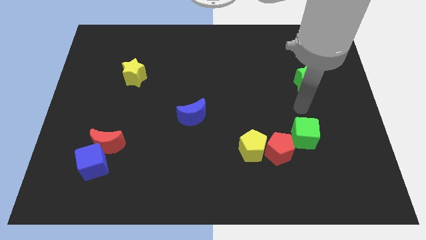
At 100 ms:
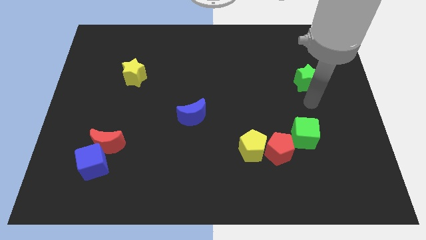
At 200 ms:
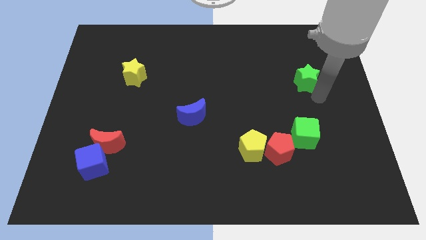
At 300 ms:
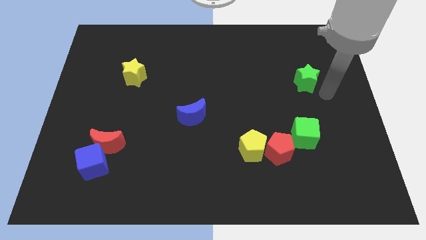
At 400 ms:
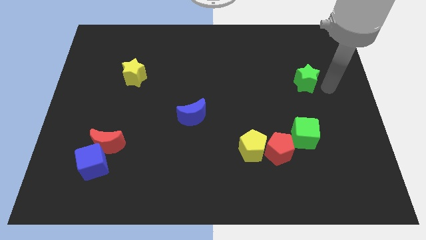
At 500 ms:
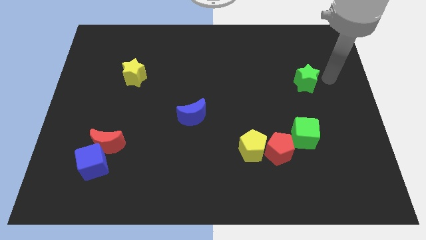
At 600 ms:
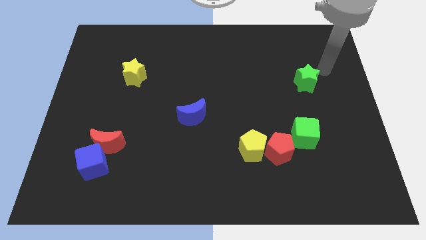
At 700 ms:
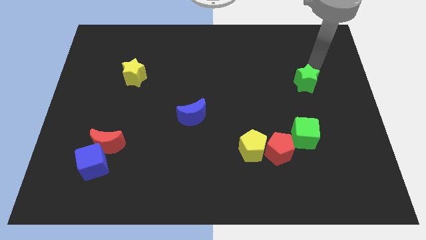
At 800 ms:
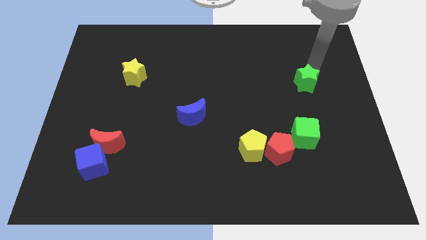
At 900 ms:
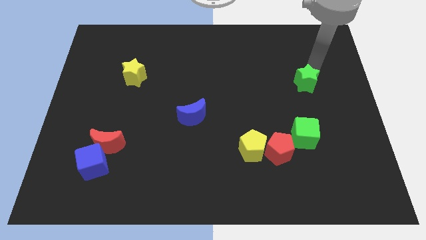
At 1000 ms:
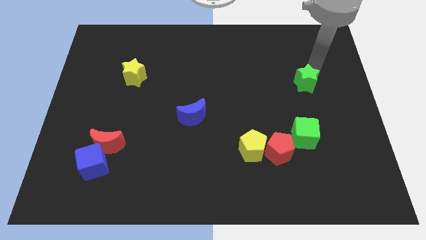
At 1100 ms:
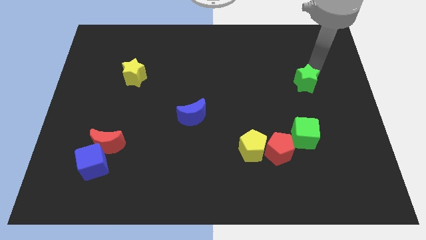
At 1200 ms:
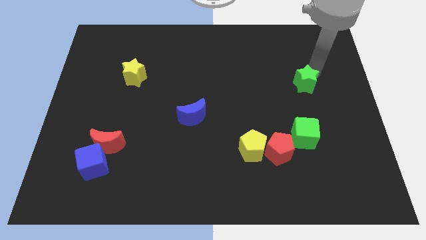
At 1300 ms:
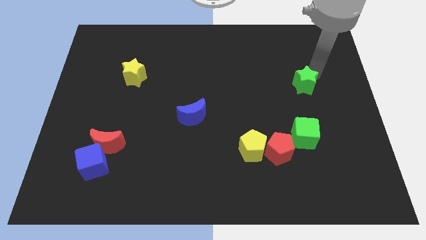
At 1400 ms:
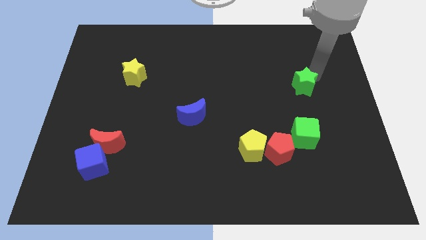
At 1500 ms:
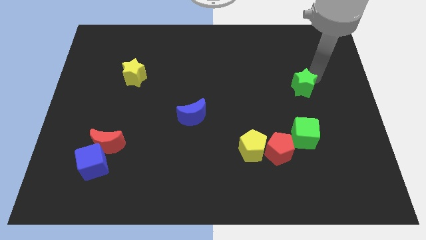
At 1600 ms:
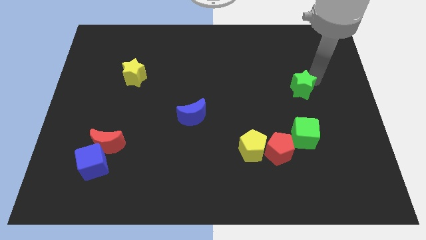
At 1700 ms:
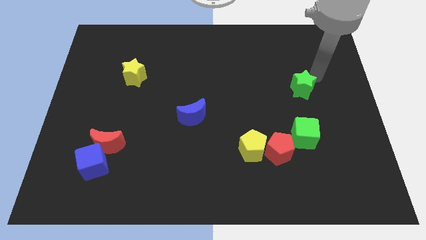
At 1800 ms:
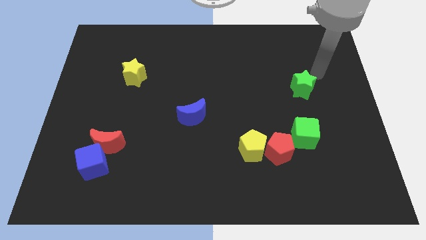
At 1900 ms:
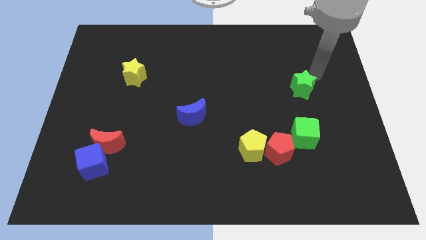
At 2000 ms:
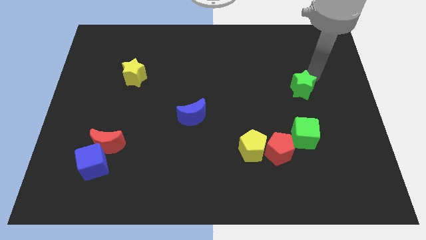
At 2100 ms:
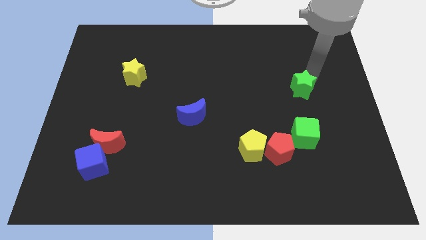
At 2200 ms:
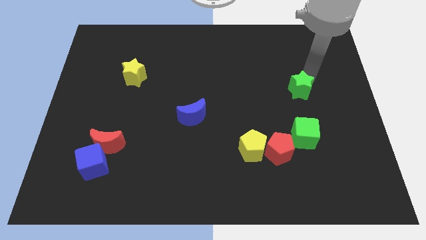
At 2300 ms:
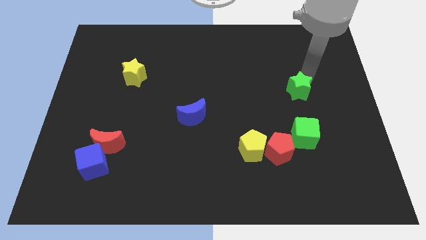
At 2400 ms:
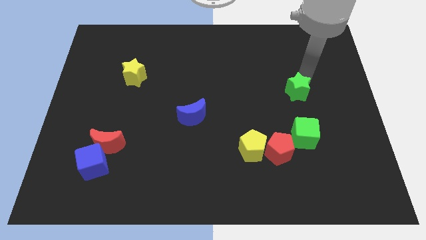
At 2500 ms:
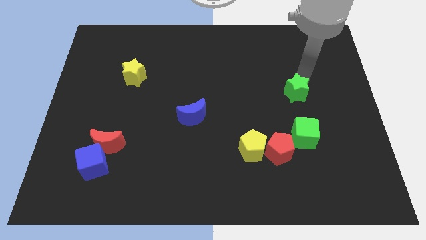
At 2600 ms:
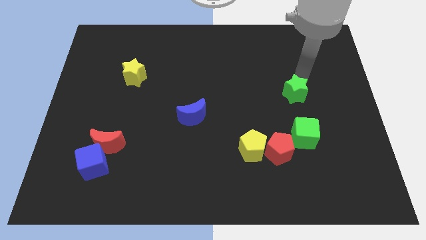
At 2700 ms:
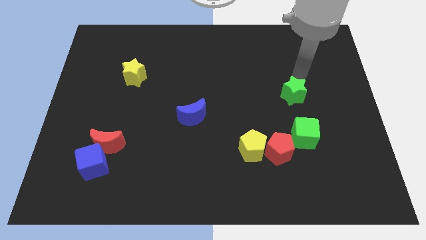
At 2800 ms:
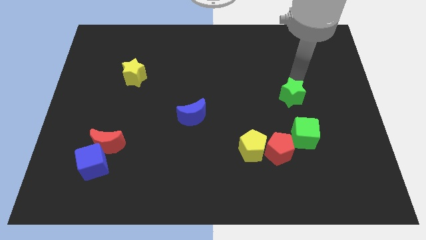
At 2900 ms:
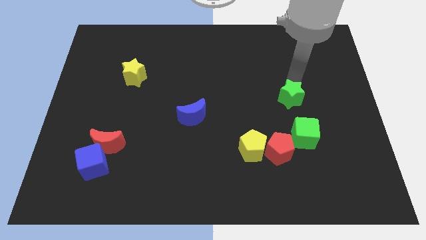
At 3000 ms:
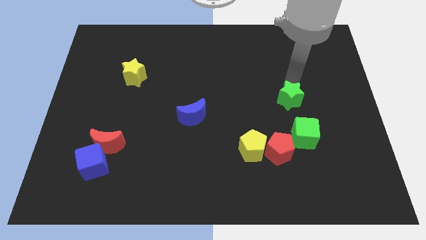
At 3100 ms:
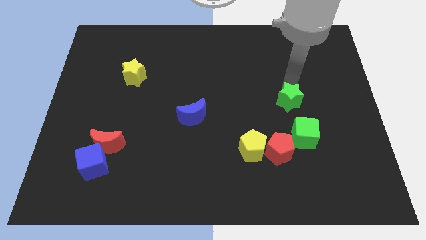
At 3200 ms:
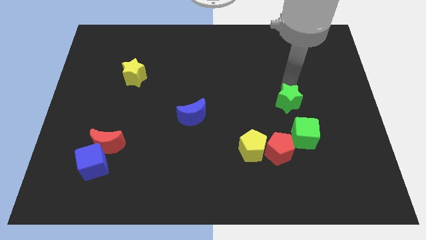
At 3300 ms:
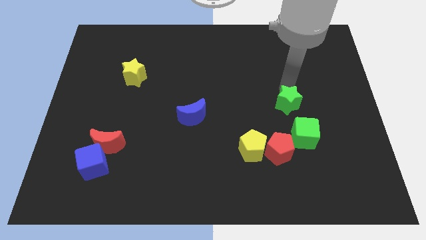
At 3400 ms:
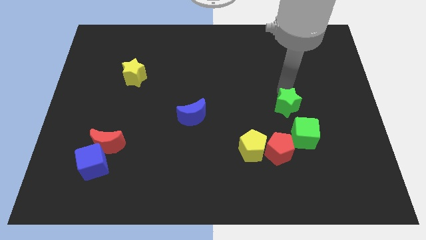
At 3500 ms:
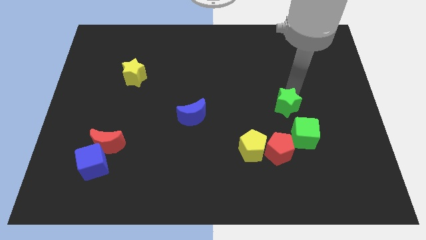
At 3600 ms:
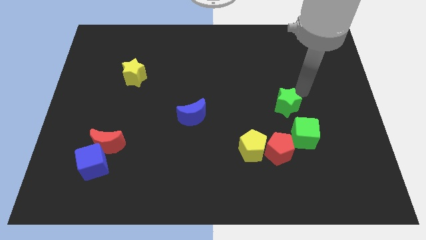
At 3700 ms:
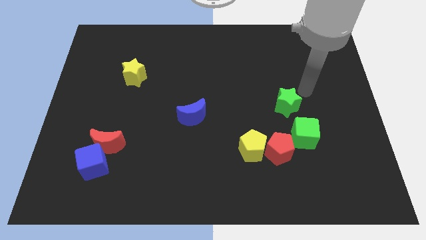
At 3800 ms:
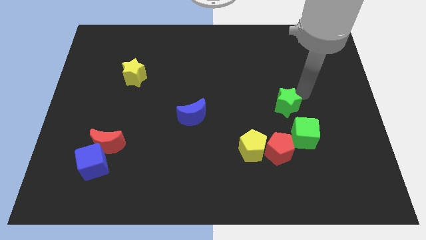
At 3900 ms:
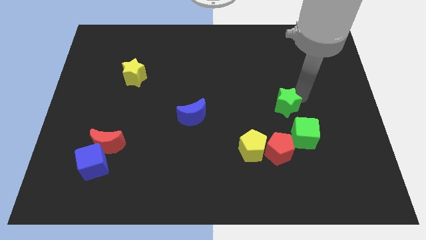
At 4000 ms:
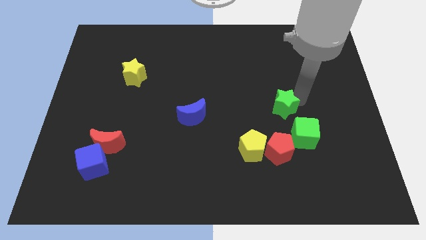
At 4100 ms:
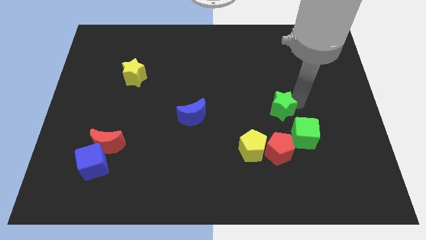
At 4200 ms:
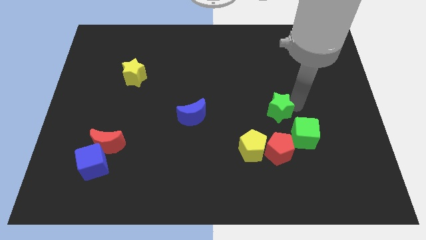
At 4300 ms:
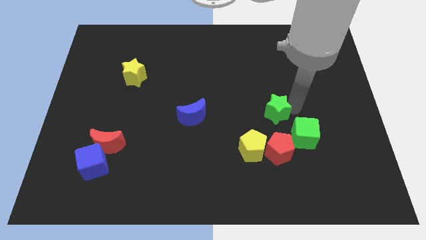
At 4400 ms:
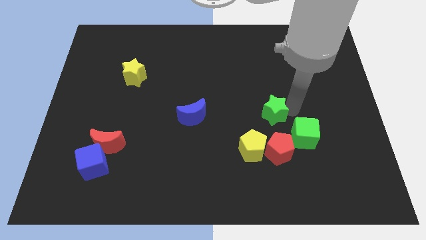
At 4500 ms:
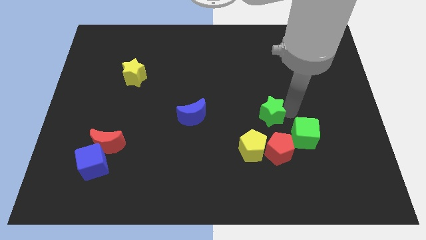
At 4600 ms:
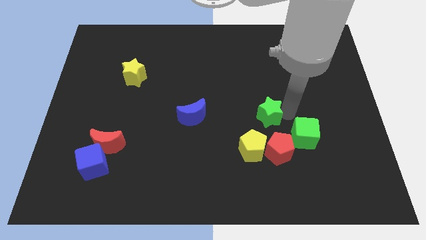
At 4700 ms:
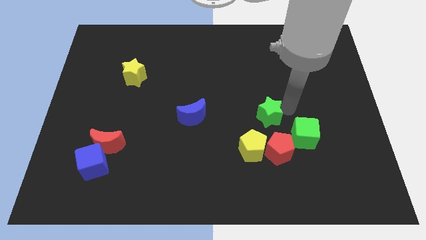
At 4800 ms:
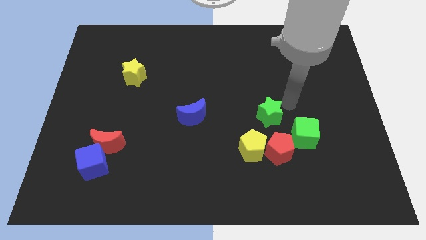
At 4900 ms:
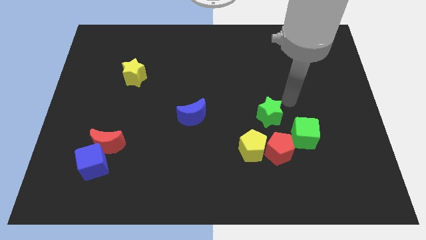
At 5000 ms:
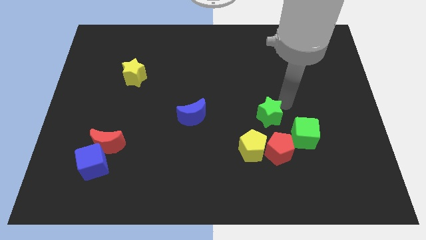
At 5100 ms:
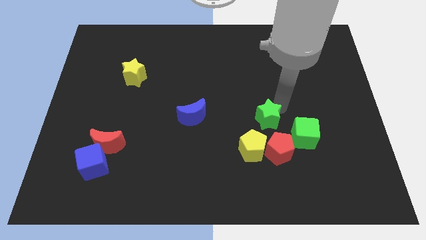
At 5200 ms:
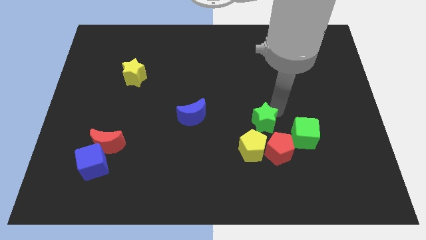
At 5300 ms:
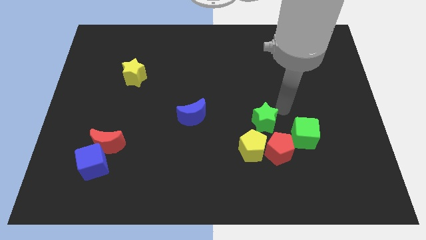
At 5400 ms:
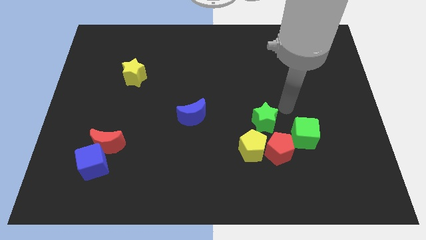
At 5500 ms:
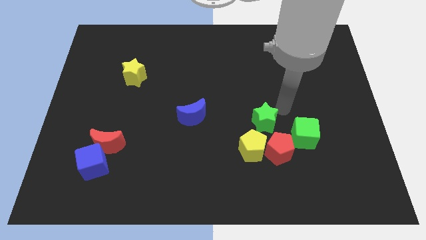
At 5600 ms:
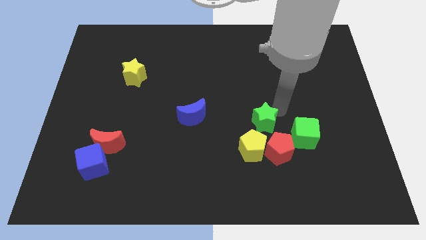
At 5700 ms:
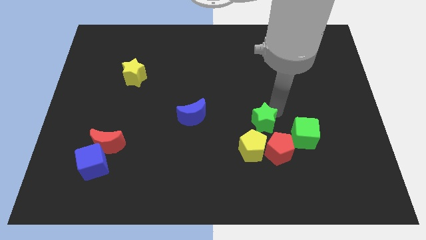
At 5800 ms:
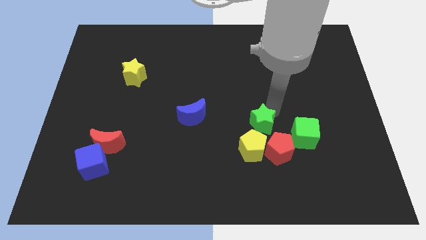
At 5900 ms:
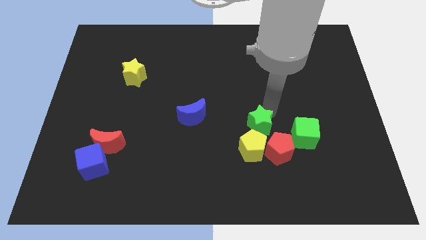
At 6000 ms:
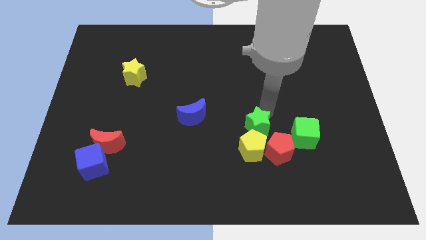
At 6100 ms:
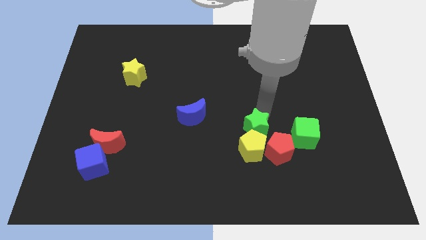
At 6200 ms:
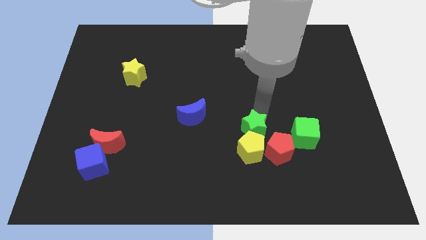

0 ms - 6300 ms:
push the green star downwards and then to the left

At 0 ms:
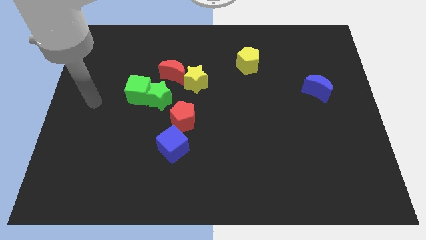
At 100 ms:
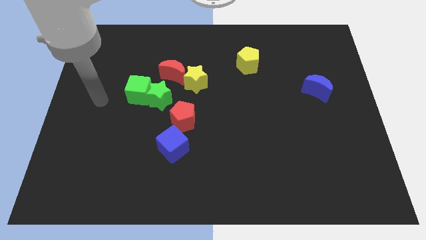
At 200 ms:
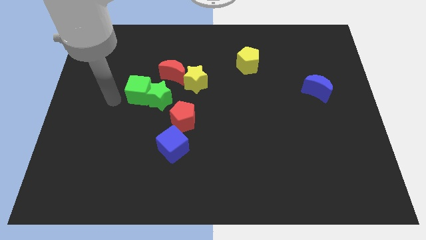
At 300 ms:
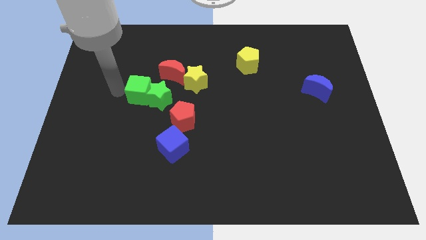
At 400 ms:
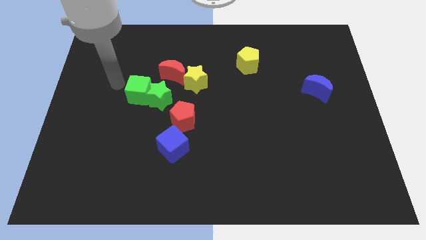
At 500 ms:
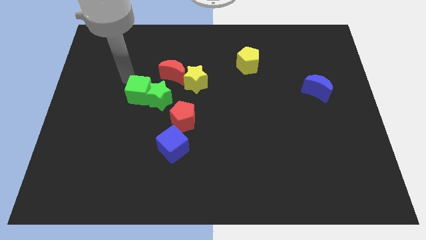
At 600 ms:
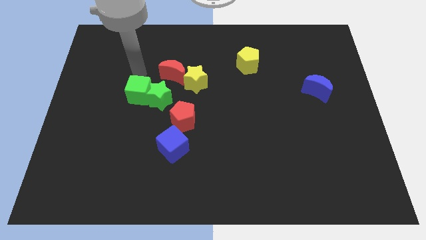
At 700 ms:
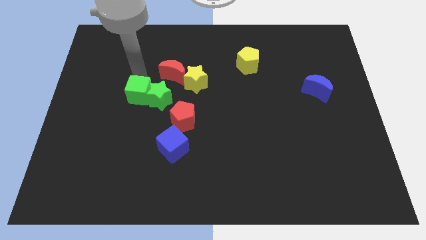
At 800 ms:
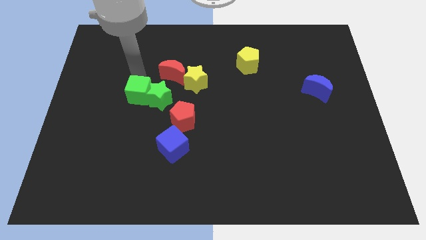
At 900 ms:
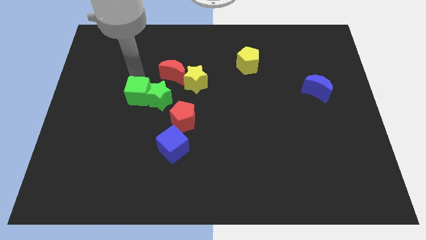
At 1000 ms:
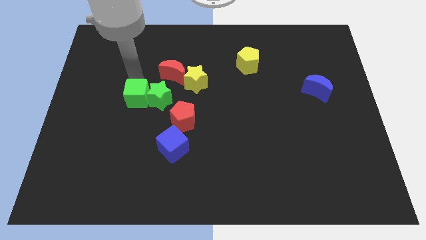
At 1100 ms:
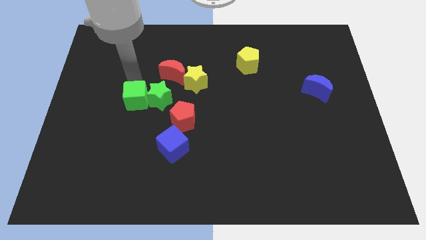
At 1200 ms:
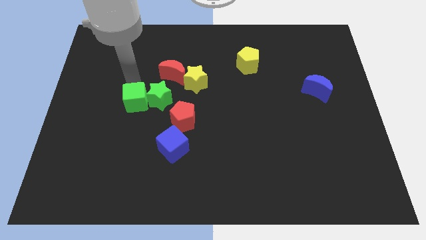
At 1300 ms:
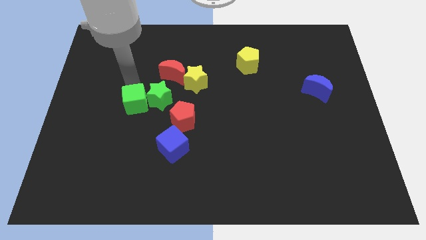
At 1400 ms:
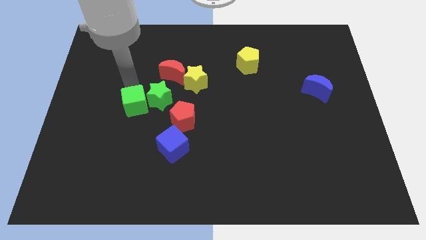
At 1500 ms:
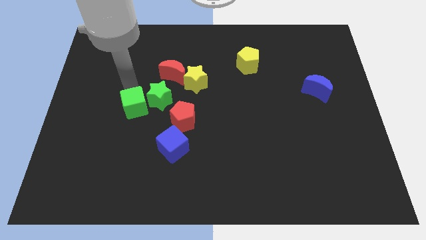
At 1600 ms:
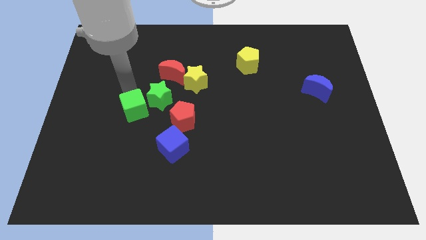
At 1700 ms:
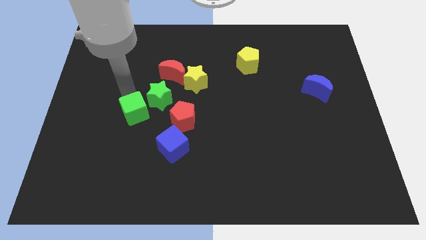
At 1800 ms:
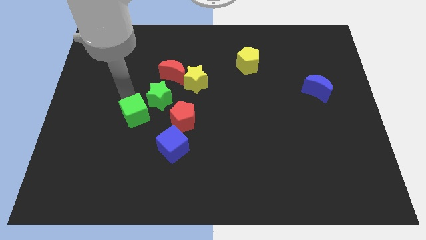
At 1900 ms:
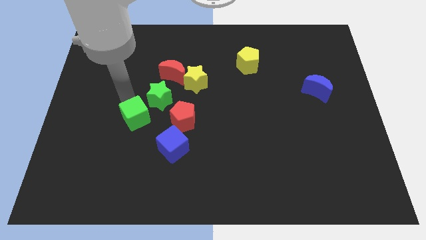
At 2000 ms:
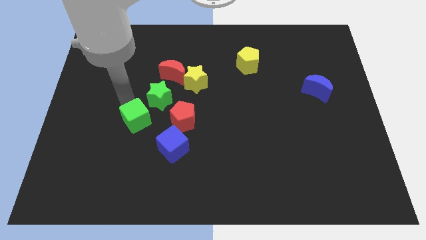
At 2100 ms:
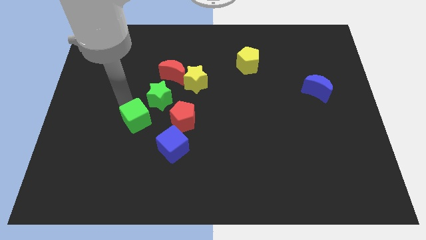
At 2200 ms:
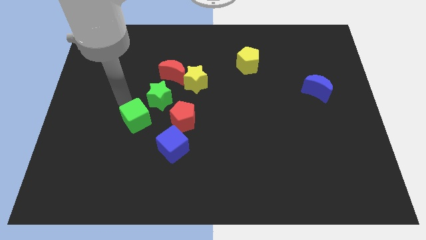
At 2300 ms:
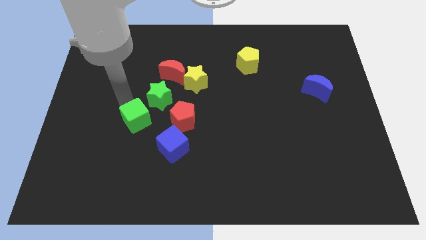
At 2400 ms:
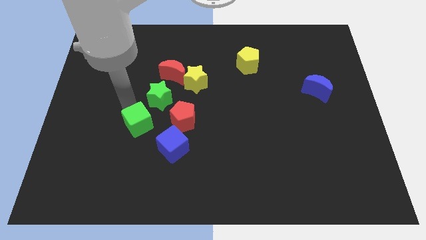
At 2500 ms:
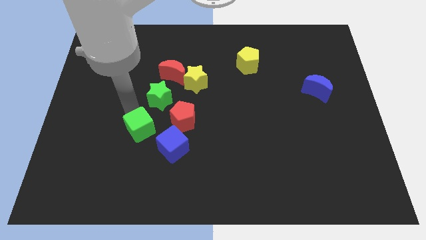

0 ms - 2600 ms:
push the green cube diagonally down and to the right a little
